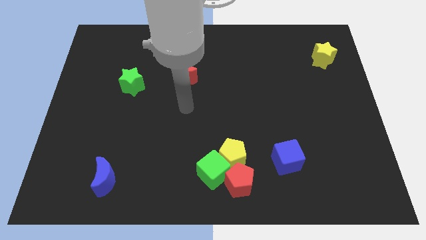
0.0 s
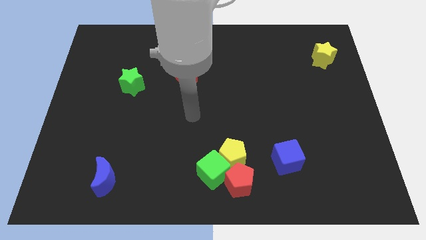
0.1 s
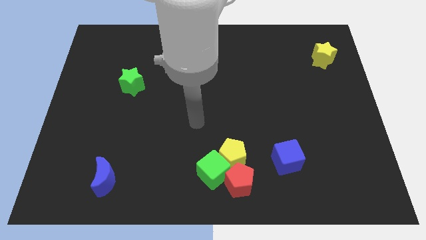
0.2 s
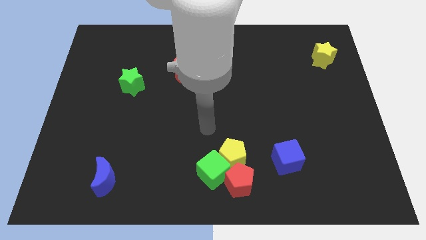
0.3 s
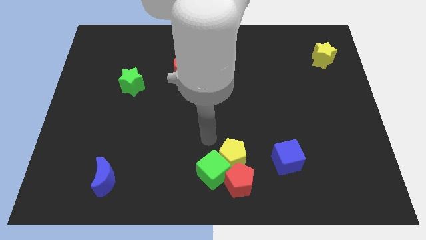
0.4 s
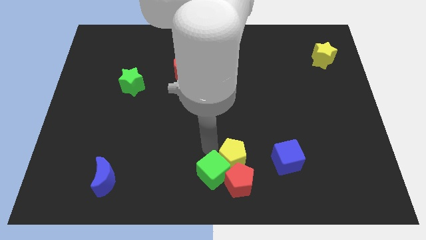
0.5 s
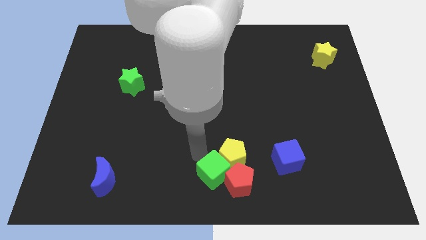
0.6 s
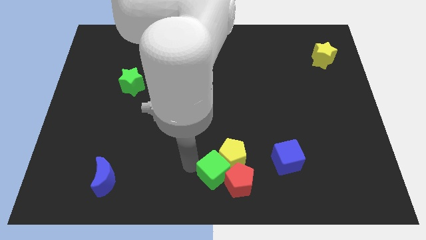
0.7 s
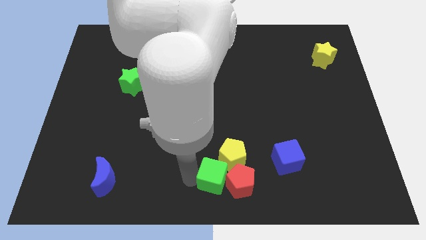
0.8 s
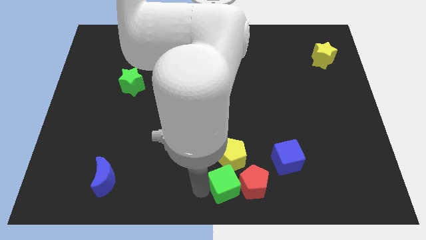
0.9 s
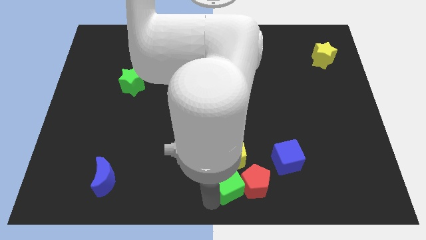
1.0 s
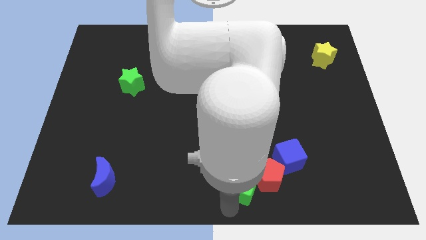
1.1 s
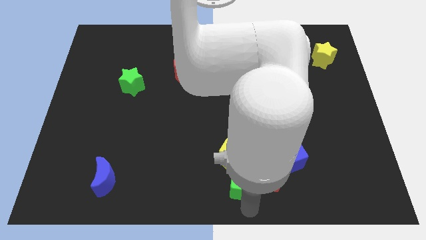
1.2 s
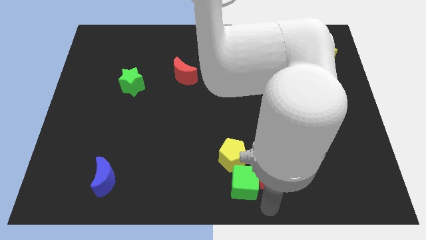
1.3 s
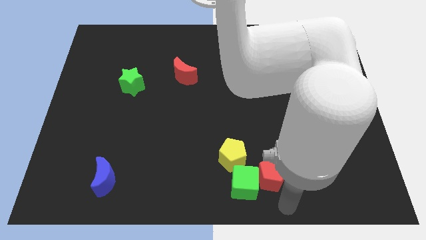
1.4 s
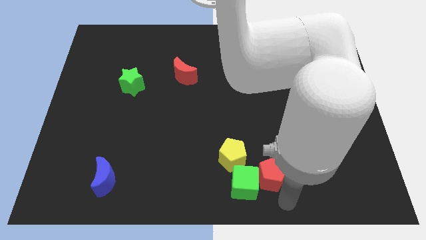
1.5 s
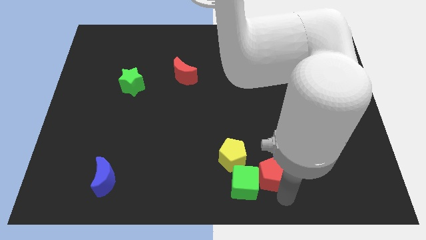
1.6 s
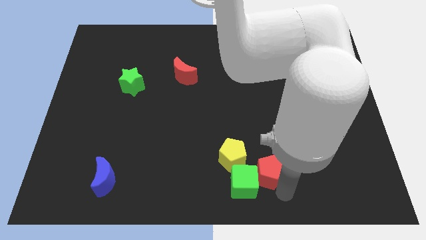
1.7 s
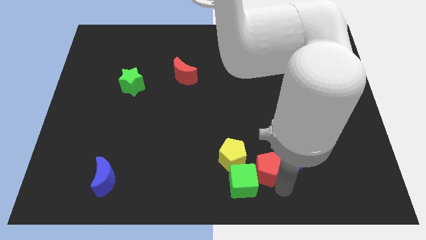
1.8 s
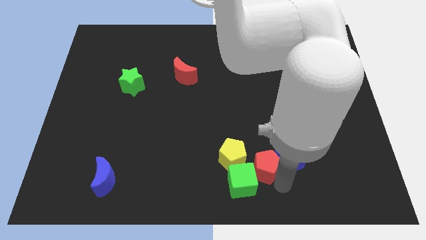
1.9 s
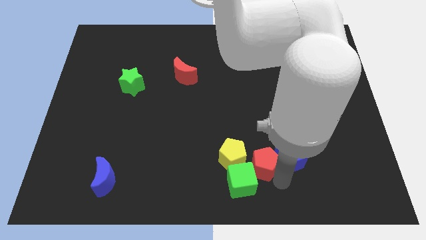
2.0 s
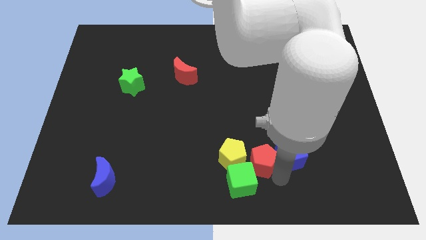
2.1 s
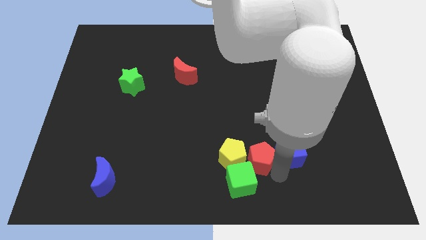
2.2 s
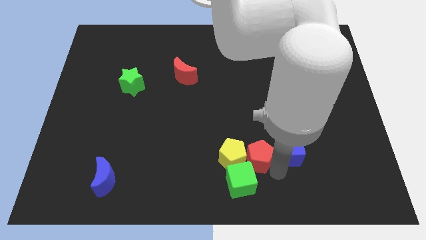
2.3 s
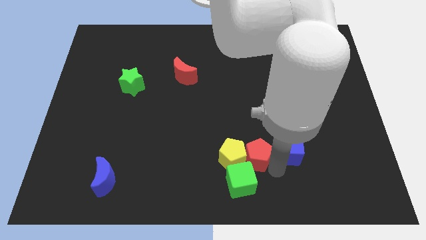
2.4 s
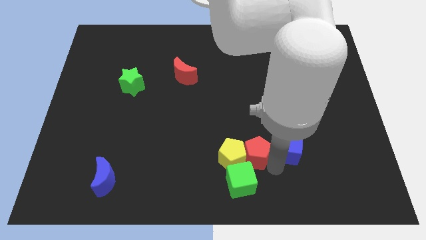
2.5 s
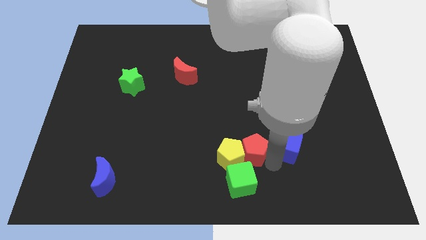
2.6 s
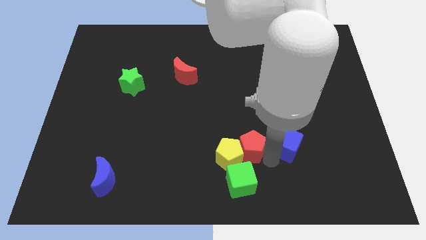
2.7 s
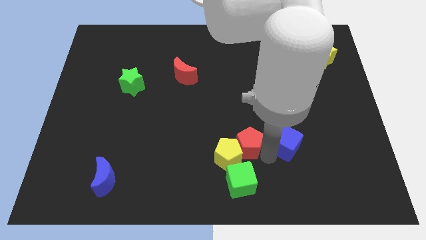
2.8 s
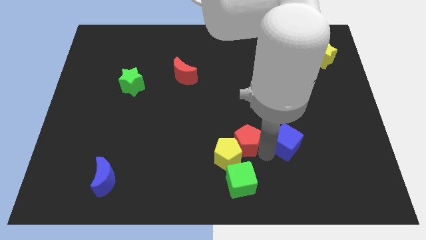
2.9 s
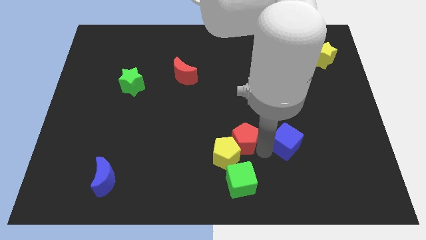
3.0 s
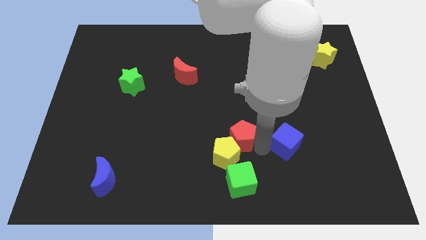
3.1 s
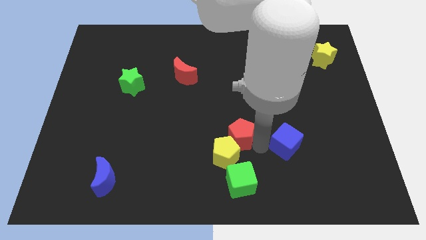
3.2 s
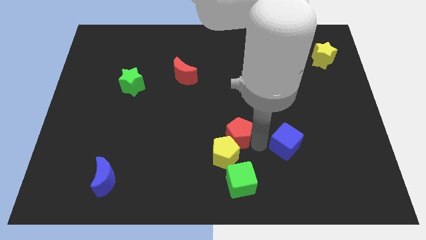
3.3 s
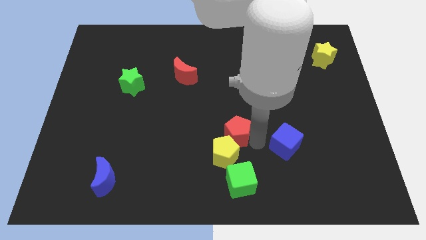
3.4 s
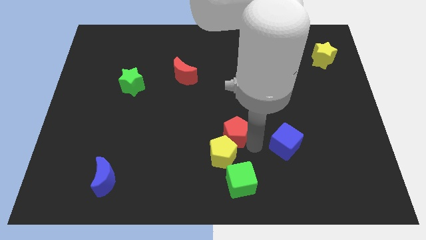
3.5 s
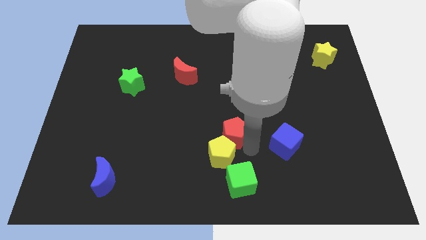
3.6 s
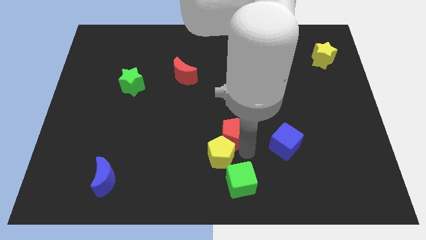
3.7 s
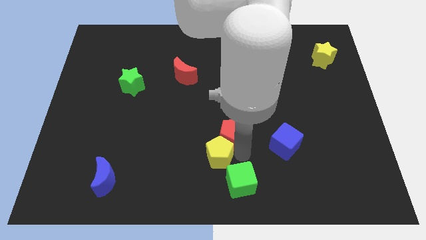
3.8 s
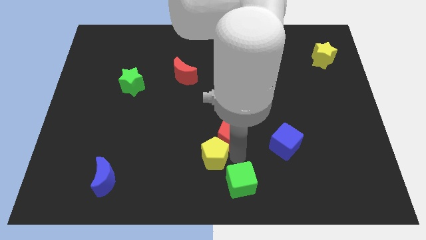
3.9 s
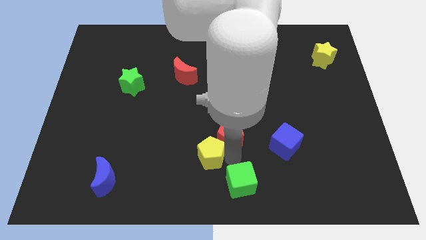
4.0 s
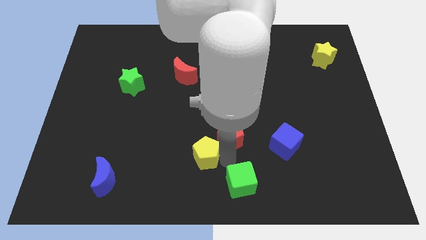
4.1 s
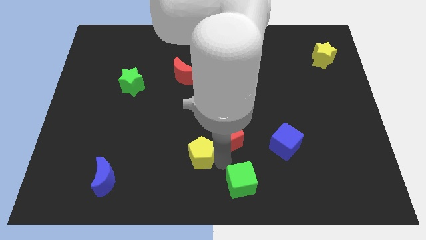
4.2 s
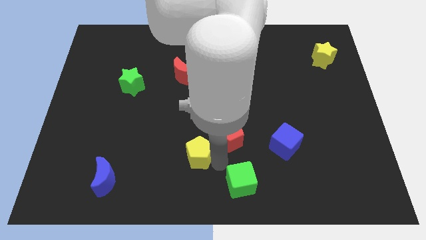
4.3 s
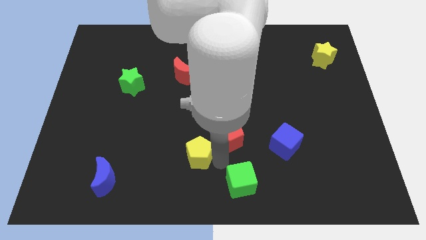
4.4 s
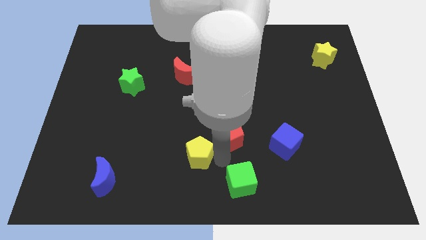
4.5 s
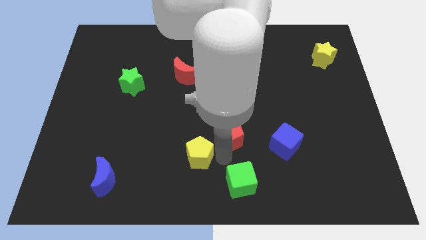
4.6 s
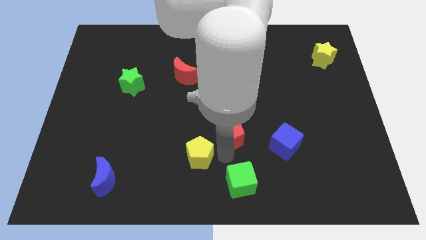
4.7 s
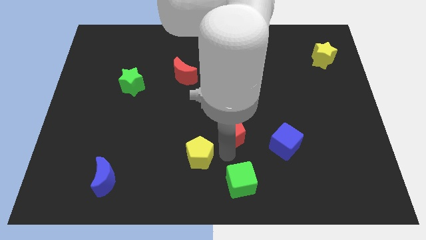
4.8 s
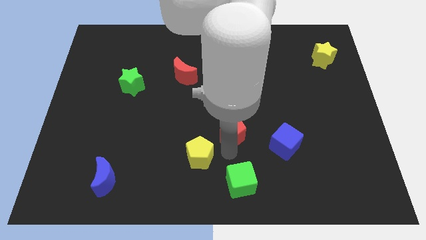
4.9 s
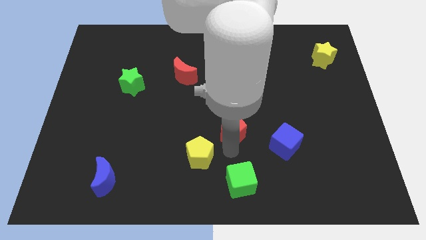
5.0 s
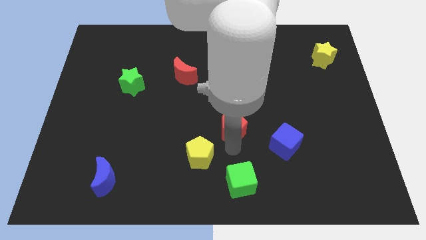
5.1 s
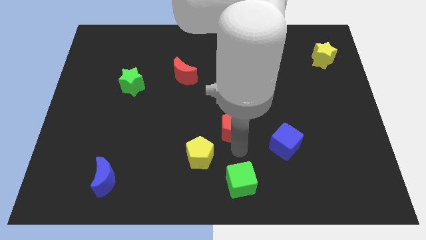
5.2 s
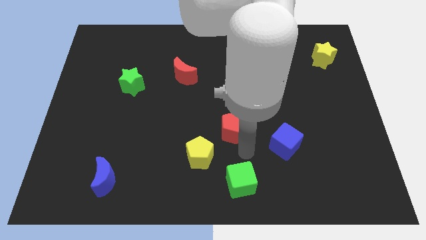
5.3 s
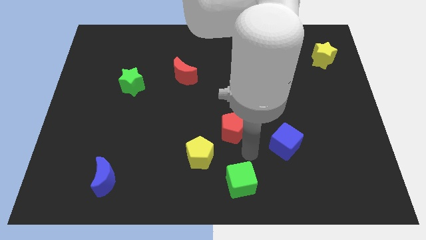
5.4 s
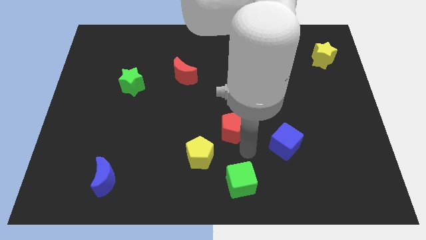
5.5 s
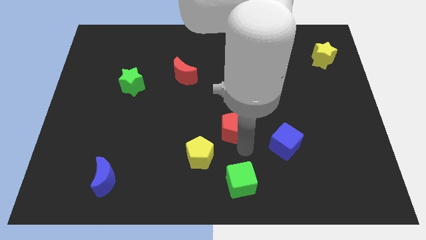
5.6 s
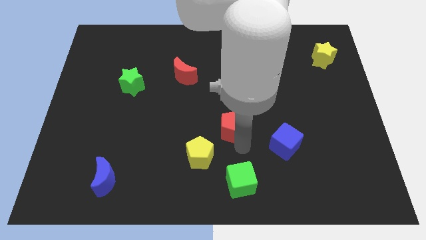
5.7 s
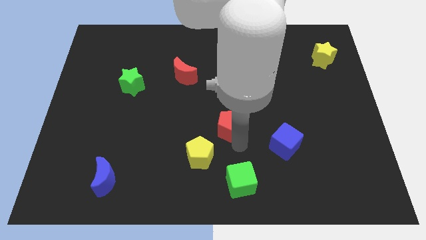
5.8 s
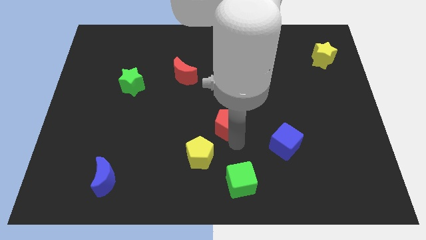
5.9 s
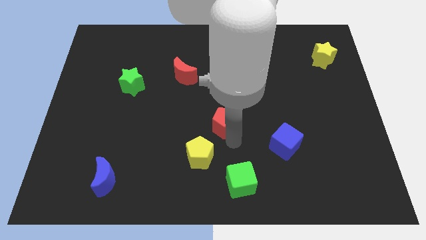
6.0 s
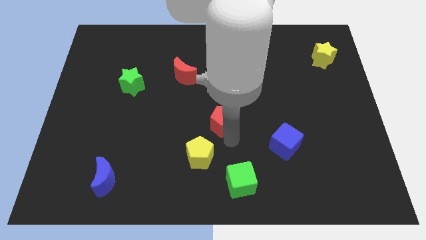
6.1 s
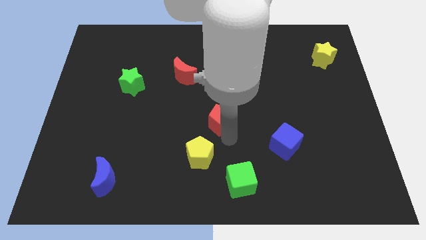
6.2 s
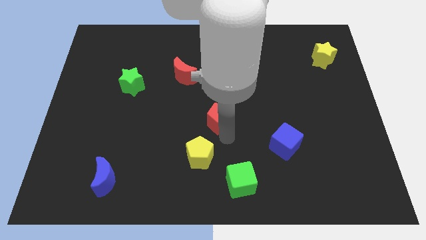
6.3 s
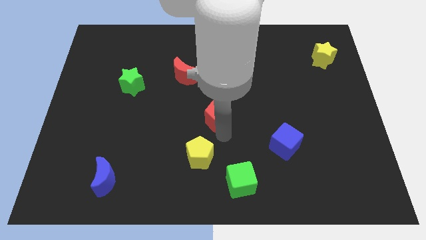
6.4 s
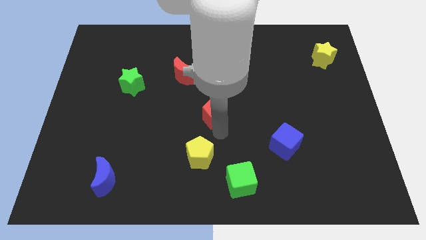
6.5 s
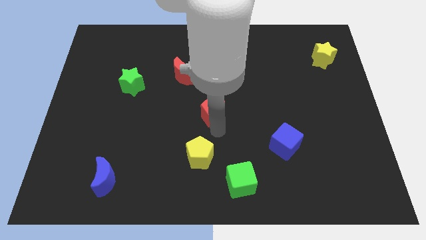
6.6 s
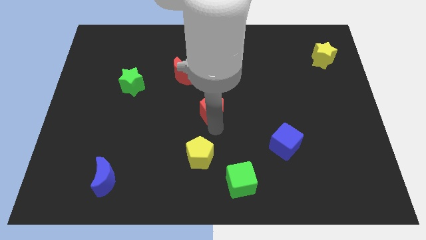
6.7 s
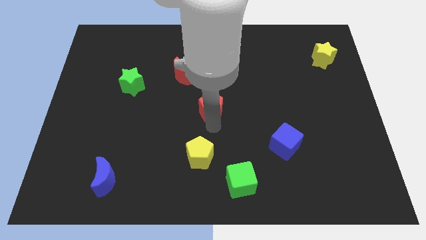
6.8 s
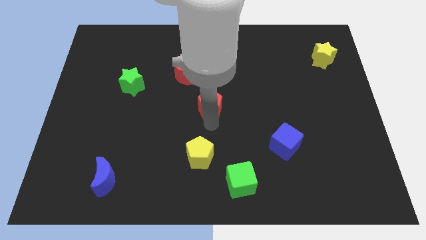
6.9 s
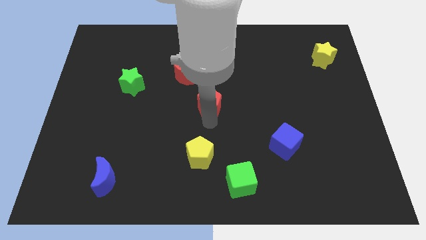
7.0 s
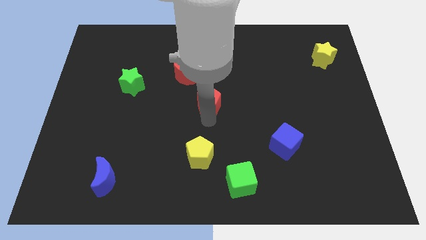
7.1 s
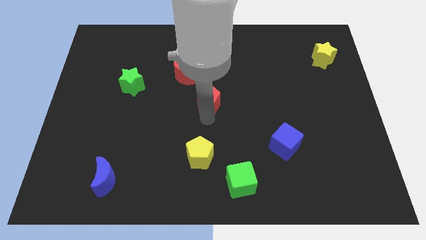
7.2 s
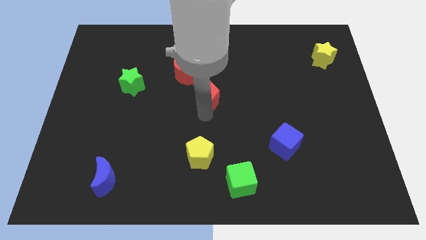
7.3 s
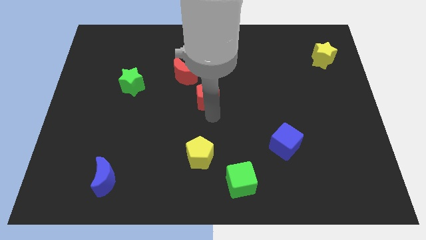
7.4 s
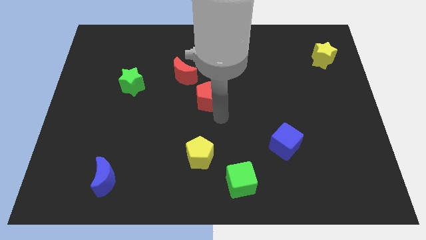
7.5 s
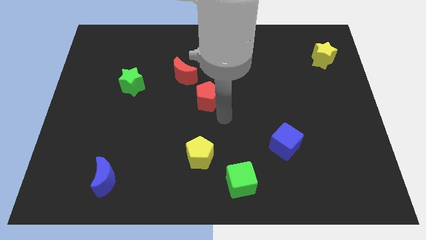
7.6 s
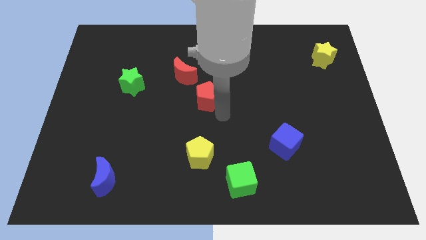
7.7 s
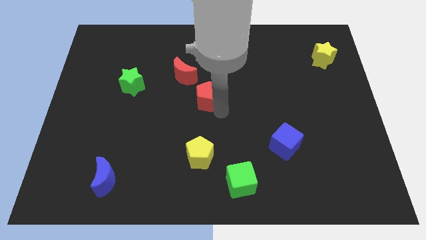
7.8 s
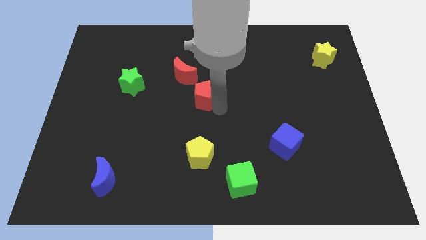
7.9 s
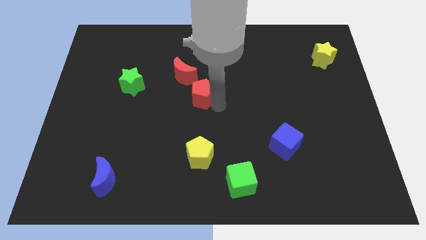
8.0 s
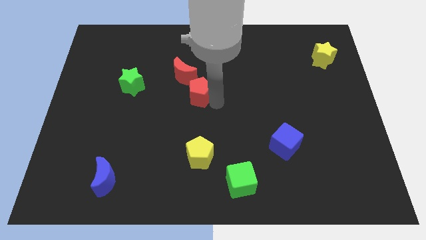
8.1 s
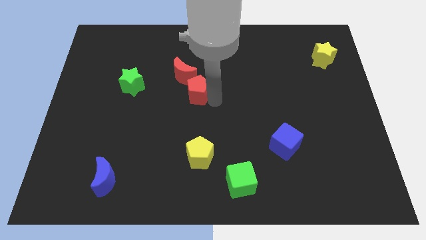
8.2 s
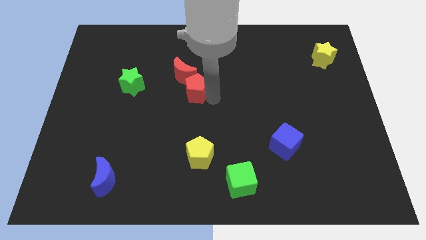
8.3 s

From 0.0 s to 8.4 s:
put the red pentagon close to the red moon
